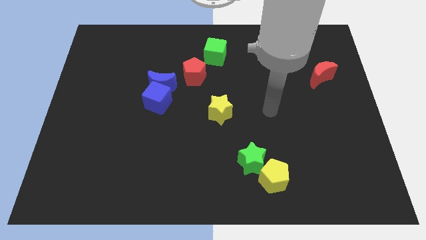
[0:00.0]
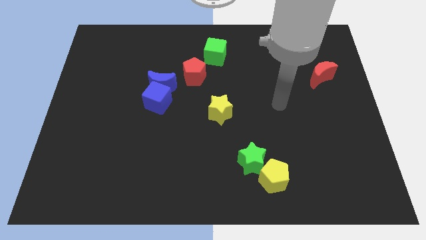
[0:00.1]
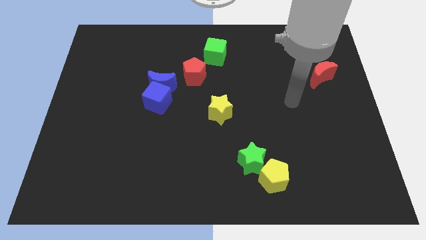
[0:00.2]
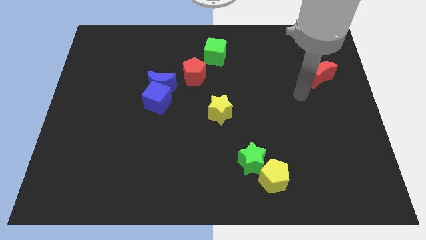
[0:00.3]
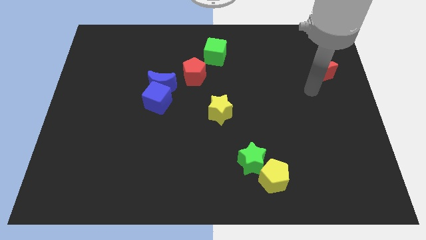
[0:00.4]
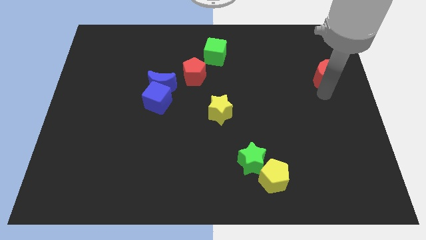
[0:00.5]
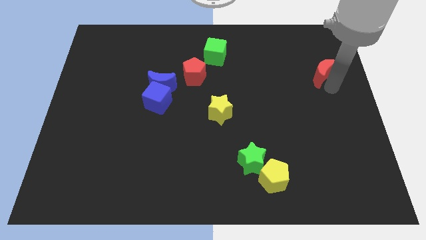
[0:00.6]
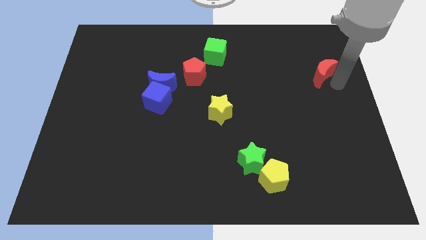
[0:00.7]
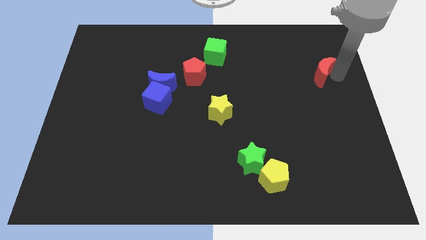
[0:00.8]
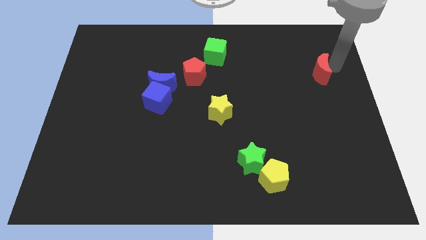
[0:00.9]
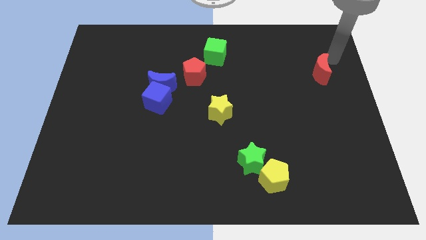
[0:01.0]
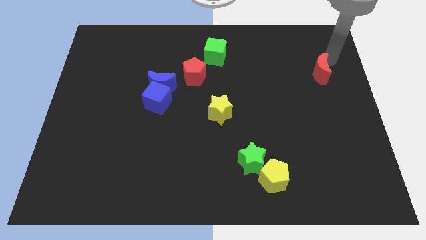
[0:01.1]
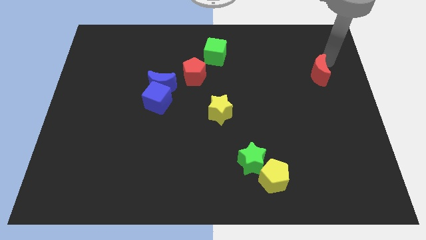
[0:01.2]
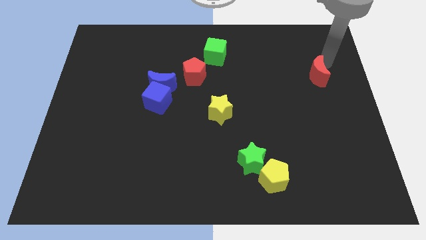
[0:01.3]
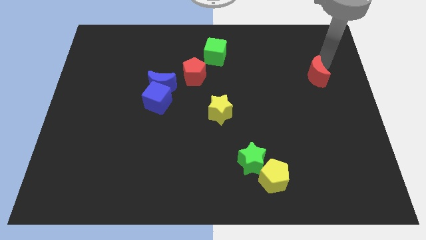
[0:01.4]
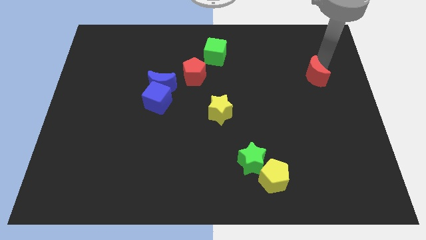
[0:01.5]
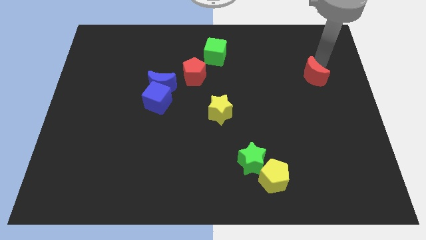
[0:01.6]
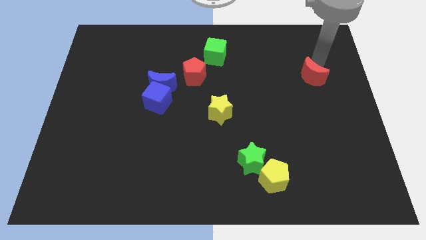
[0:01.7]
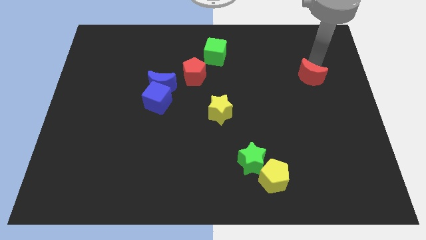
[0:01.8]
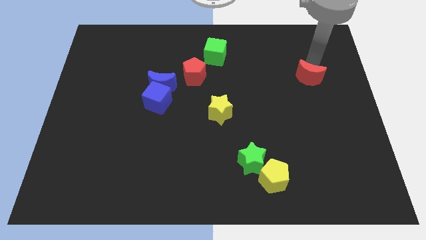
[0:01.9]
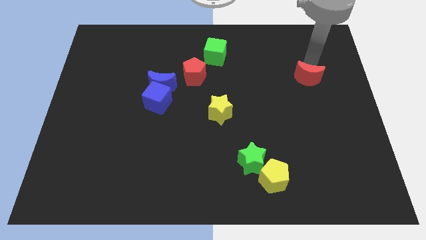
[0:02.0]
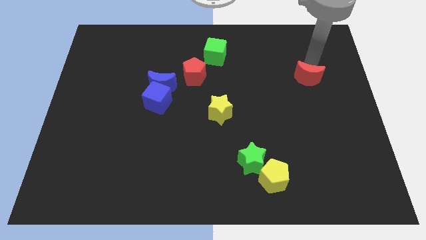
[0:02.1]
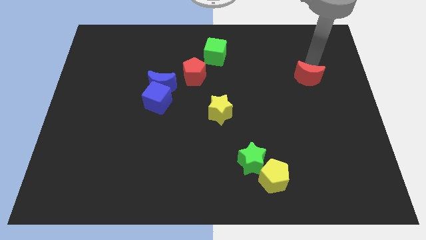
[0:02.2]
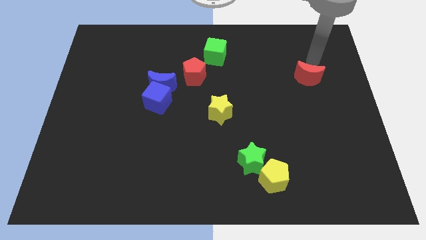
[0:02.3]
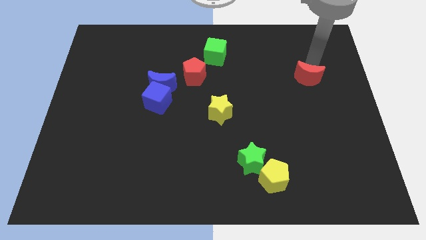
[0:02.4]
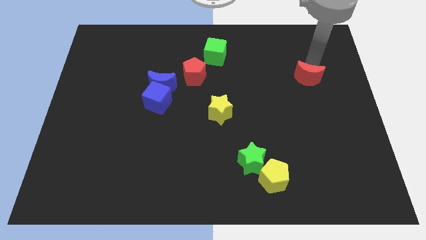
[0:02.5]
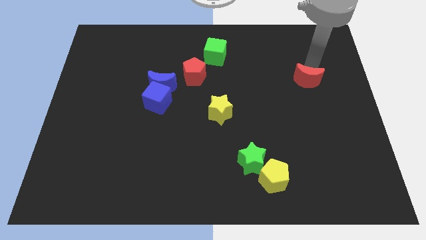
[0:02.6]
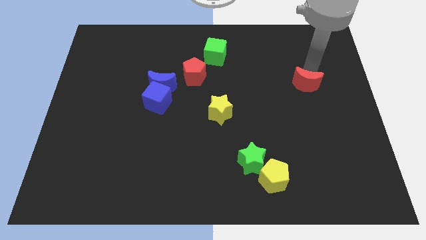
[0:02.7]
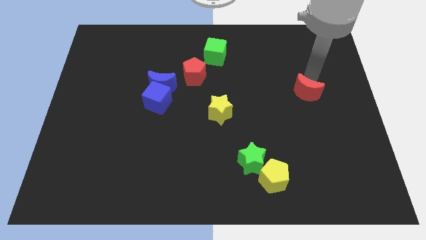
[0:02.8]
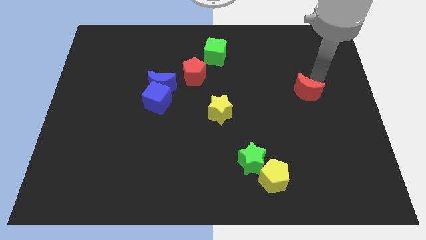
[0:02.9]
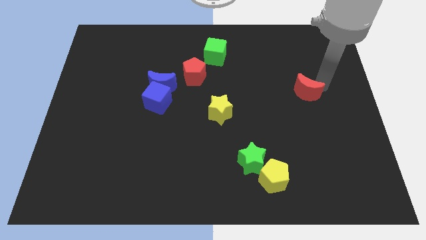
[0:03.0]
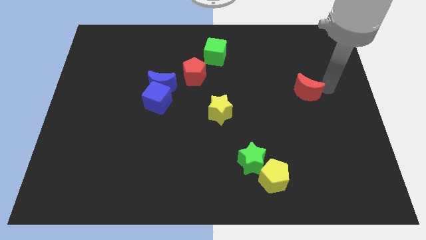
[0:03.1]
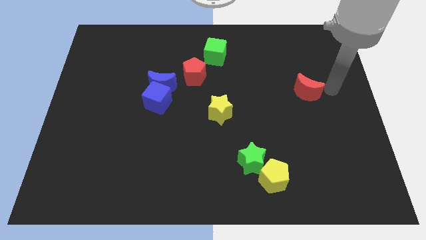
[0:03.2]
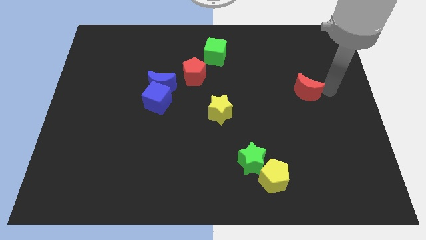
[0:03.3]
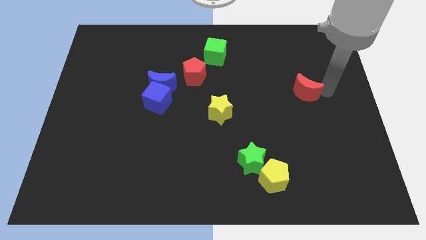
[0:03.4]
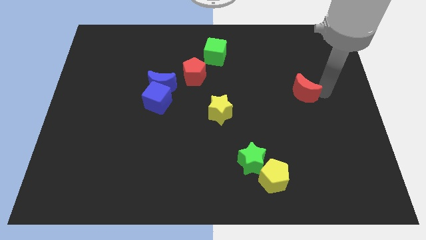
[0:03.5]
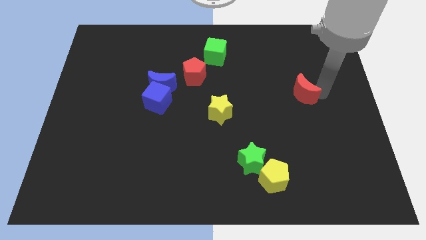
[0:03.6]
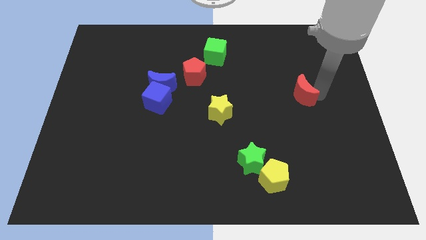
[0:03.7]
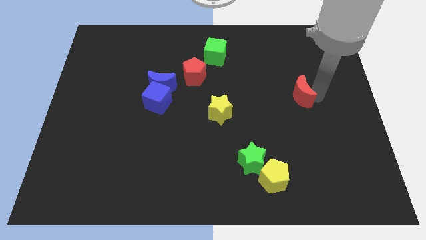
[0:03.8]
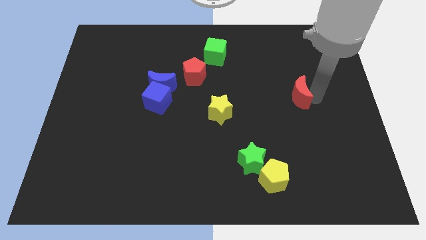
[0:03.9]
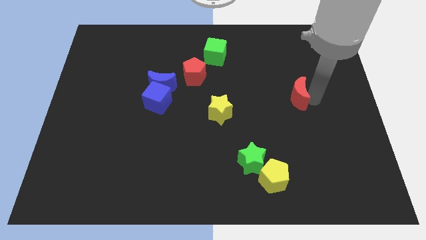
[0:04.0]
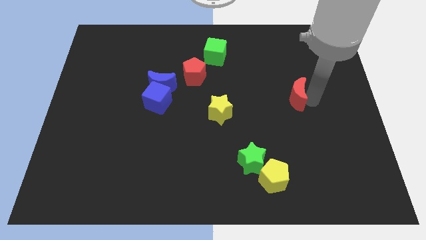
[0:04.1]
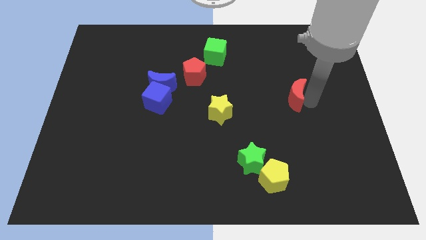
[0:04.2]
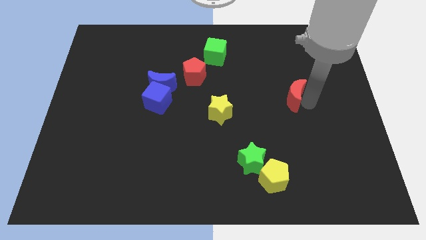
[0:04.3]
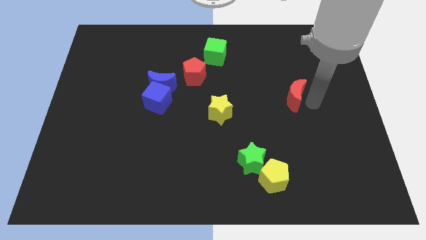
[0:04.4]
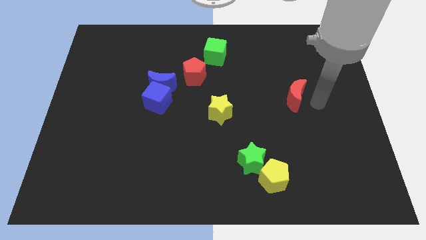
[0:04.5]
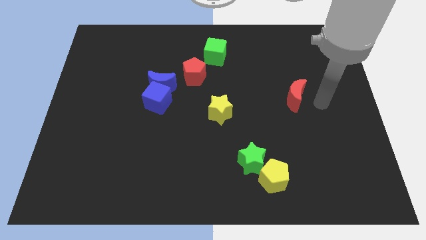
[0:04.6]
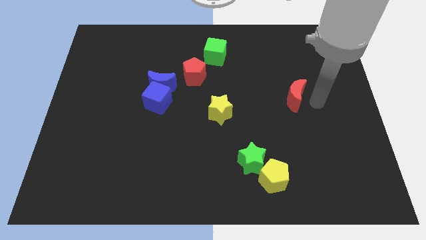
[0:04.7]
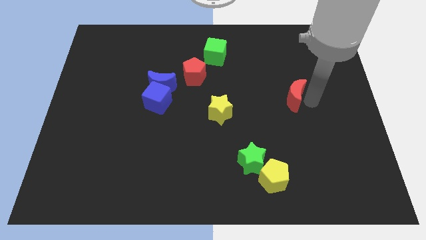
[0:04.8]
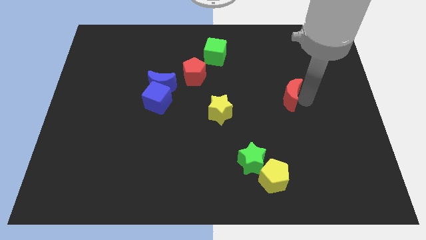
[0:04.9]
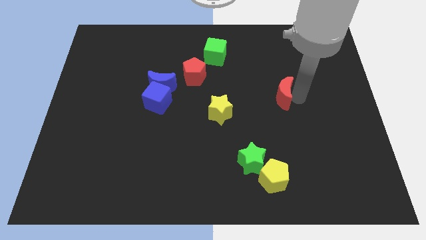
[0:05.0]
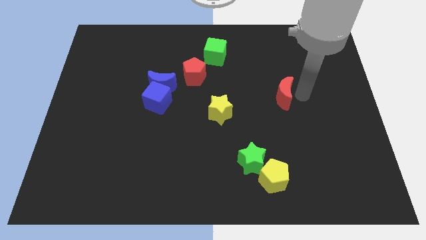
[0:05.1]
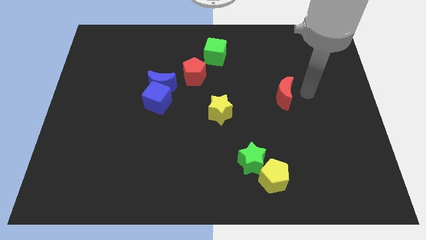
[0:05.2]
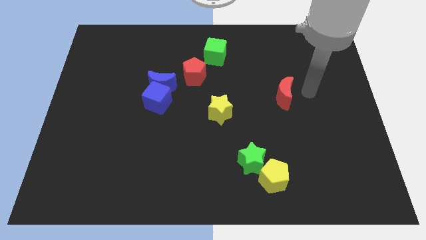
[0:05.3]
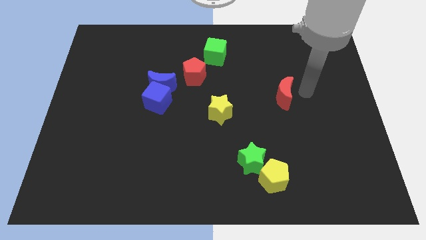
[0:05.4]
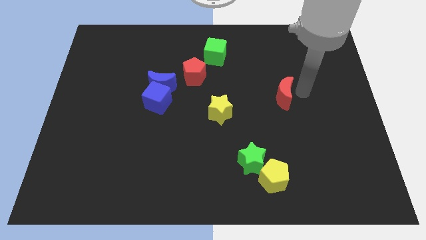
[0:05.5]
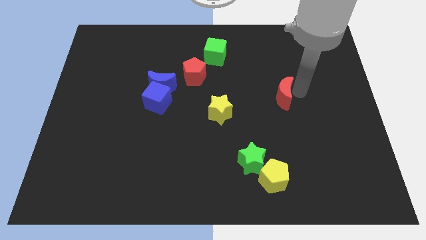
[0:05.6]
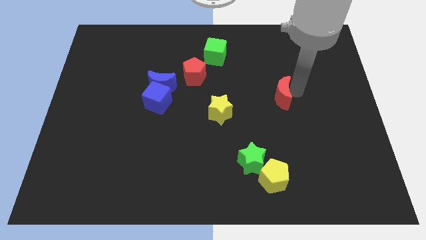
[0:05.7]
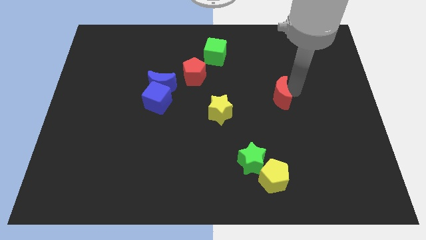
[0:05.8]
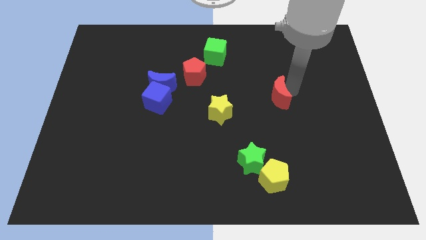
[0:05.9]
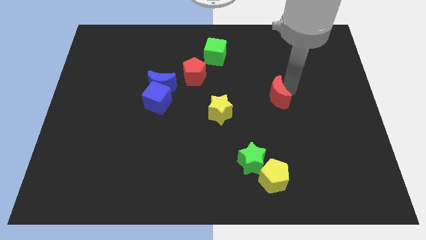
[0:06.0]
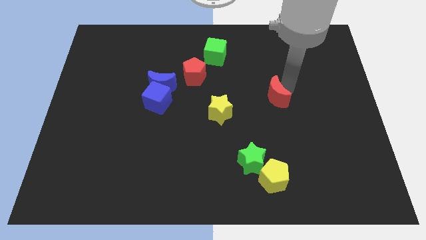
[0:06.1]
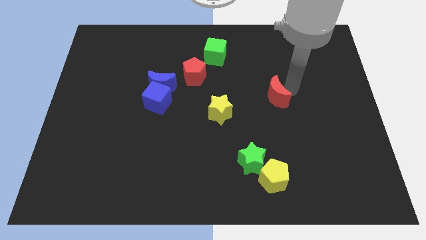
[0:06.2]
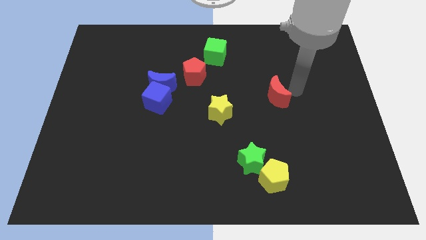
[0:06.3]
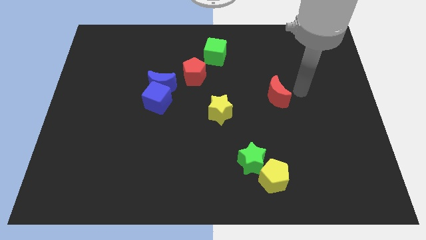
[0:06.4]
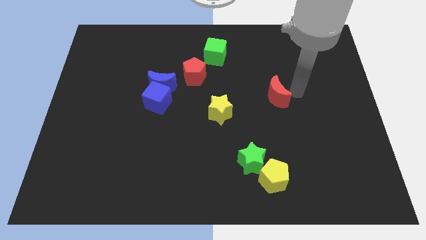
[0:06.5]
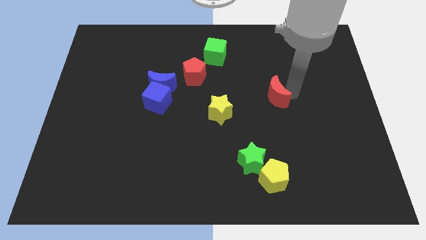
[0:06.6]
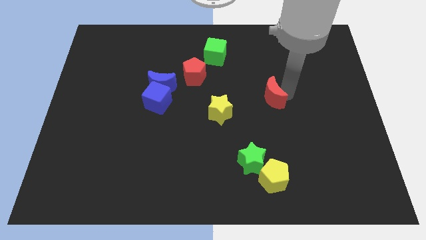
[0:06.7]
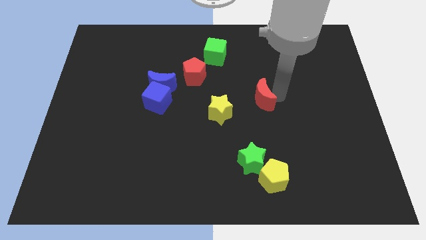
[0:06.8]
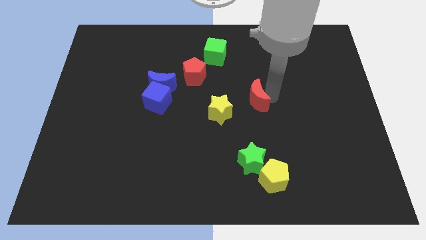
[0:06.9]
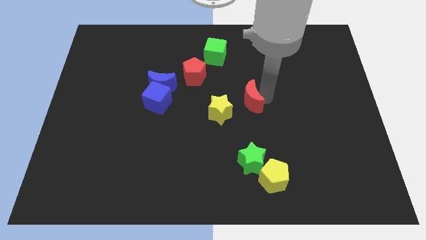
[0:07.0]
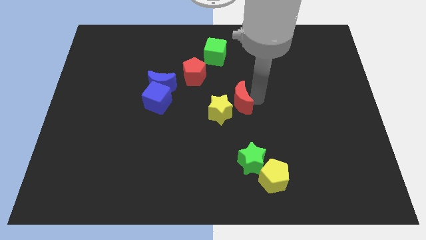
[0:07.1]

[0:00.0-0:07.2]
slide the red moon close to the yellow star

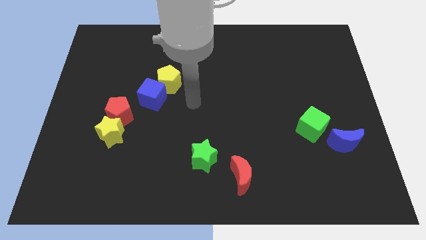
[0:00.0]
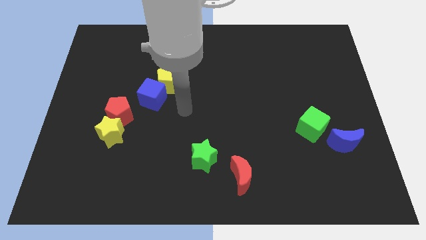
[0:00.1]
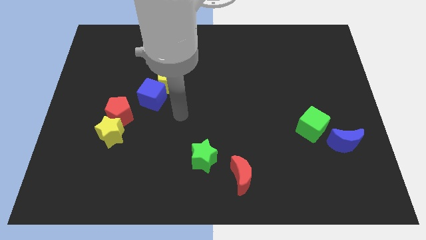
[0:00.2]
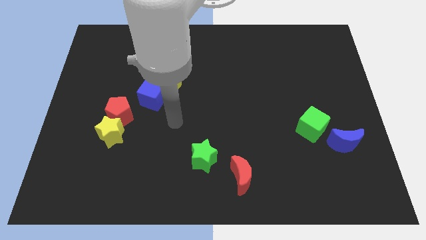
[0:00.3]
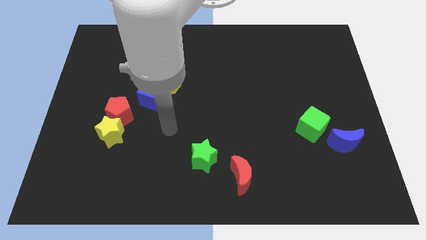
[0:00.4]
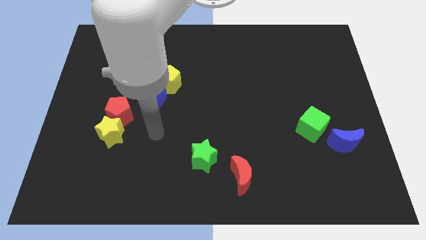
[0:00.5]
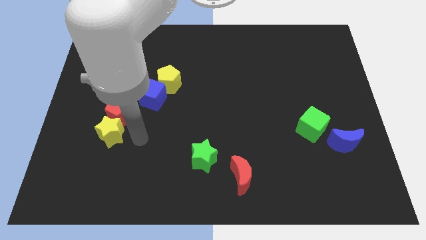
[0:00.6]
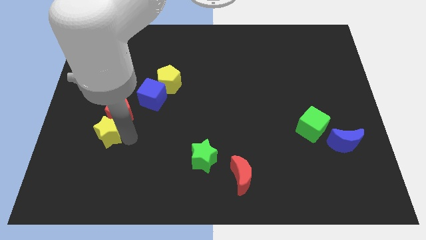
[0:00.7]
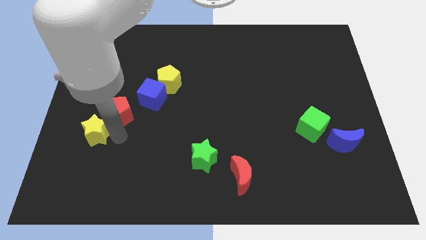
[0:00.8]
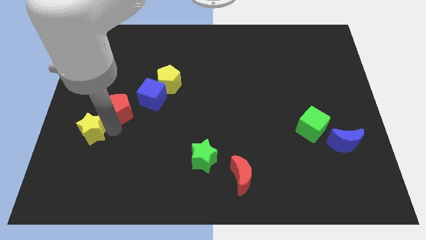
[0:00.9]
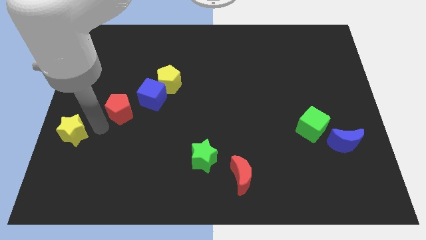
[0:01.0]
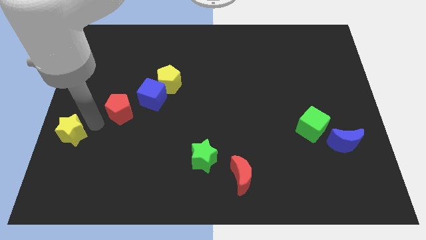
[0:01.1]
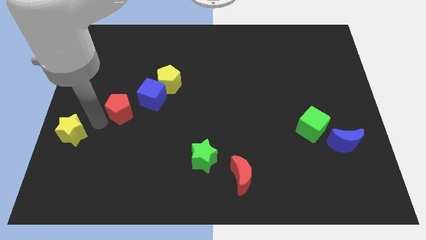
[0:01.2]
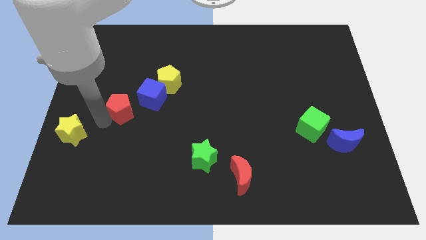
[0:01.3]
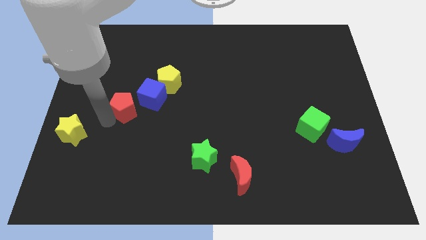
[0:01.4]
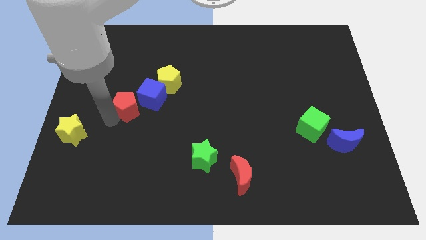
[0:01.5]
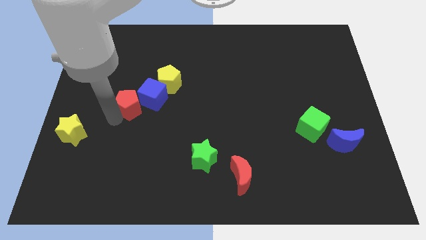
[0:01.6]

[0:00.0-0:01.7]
put the red pentagon next to the blue cube
